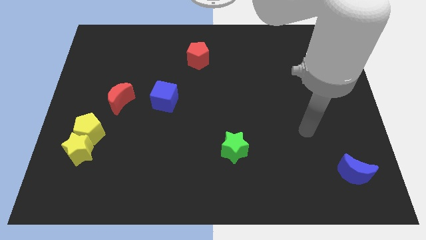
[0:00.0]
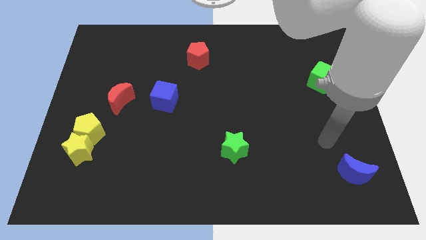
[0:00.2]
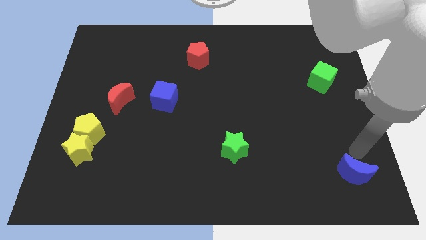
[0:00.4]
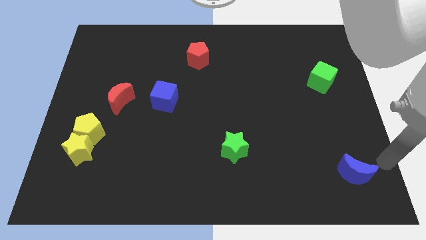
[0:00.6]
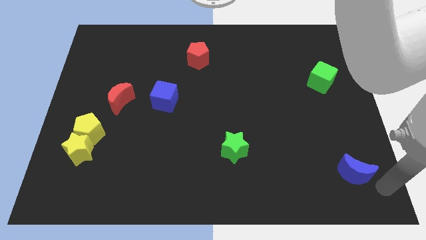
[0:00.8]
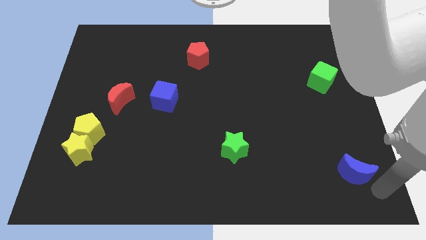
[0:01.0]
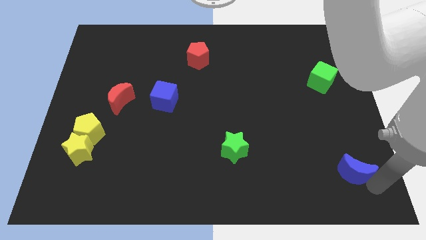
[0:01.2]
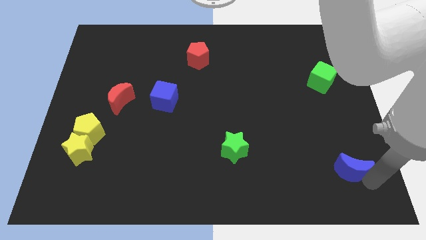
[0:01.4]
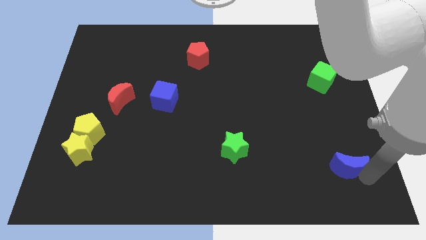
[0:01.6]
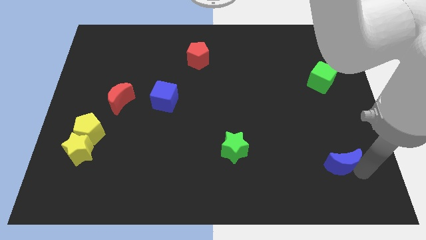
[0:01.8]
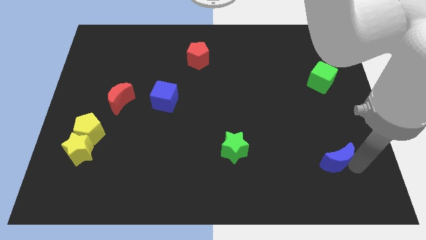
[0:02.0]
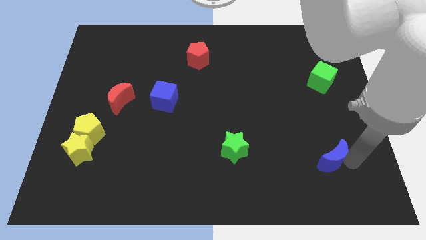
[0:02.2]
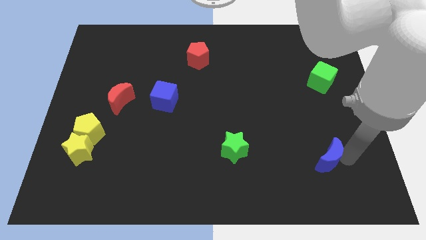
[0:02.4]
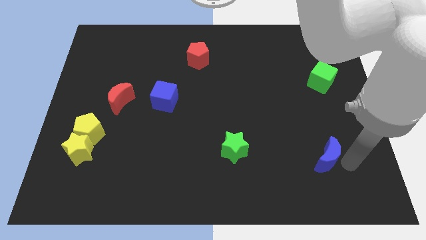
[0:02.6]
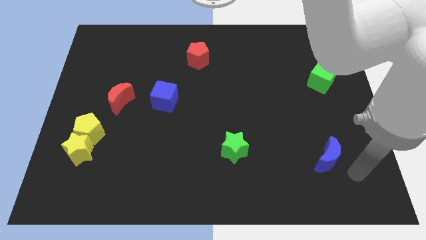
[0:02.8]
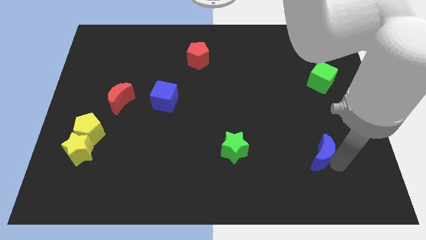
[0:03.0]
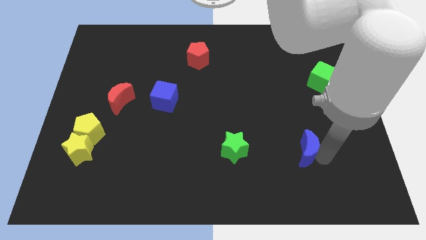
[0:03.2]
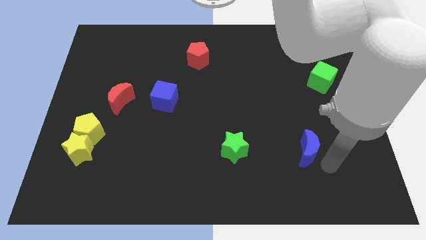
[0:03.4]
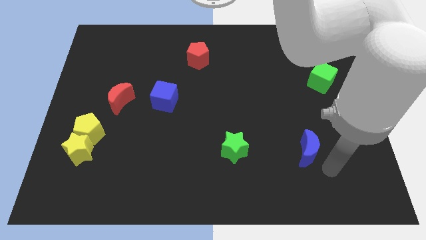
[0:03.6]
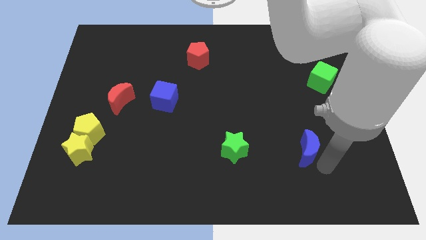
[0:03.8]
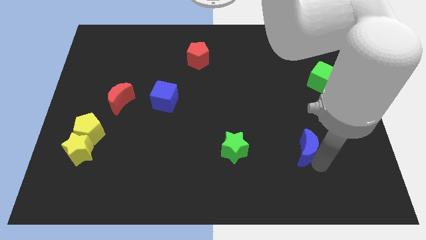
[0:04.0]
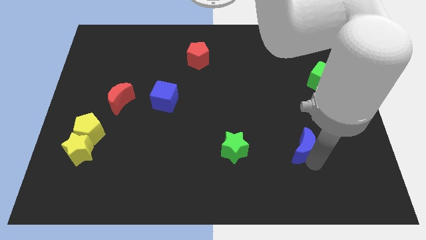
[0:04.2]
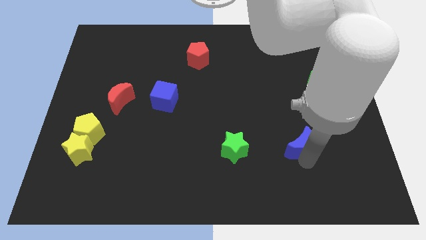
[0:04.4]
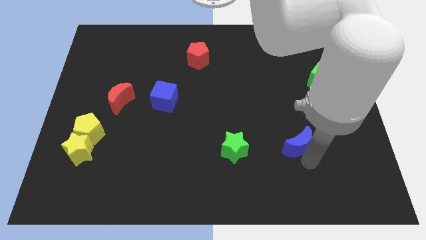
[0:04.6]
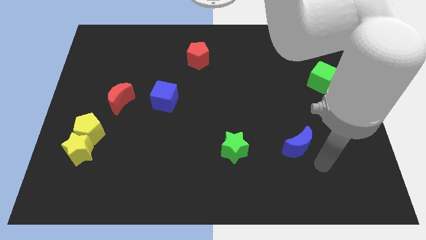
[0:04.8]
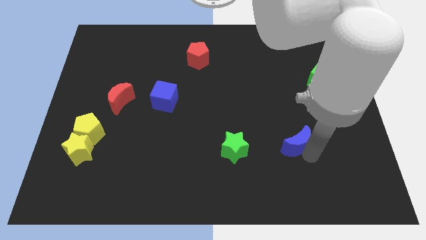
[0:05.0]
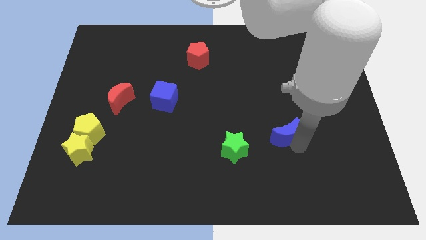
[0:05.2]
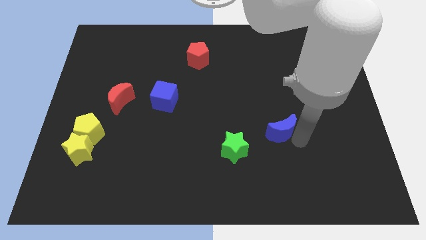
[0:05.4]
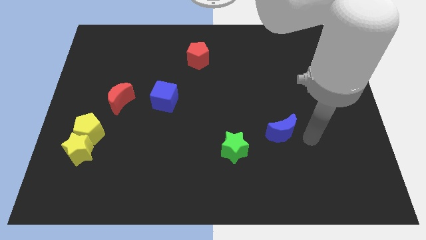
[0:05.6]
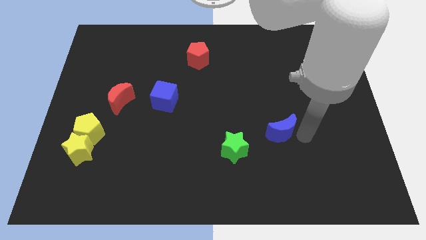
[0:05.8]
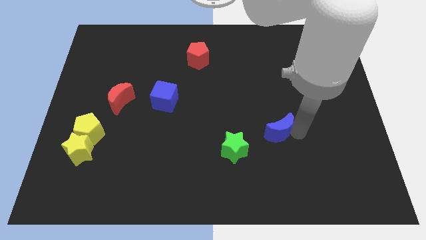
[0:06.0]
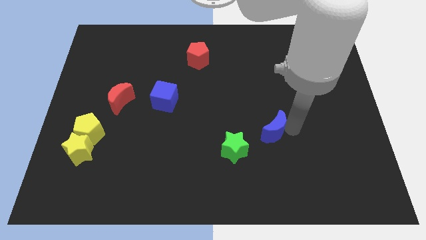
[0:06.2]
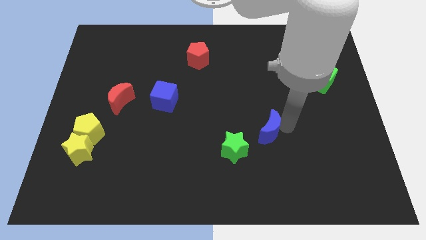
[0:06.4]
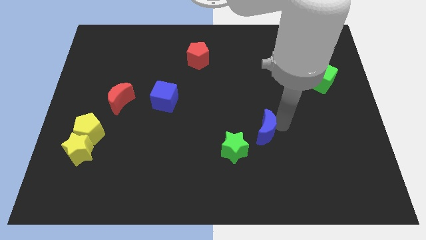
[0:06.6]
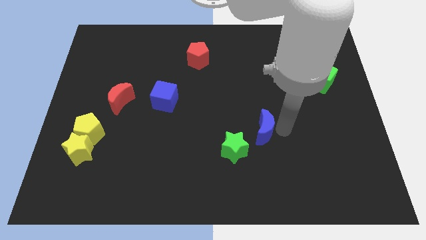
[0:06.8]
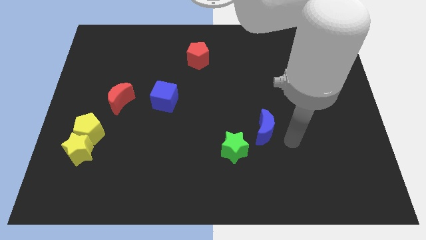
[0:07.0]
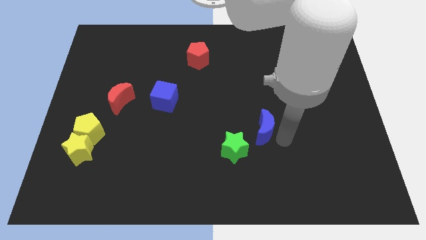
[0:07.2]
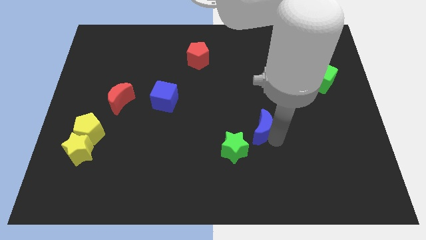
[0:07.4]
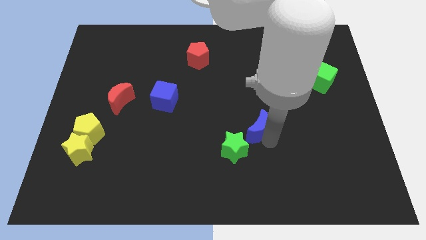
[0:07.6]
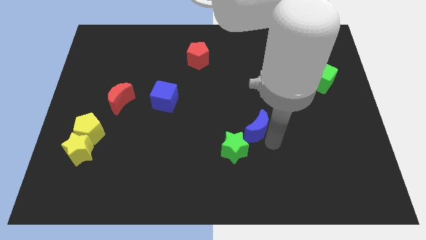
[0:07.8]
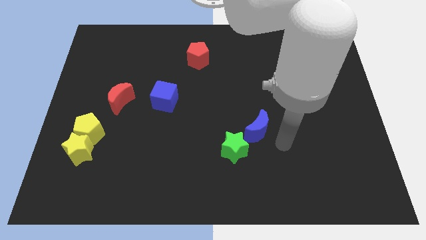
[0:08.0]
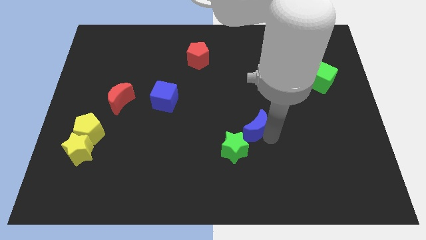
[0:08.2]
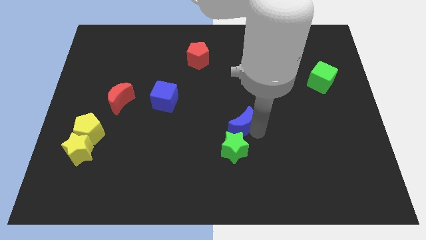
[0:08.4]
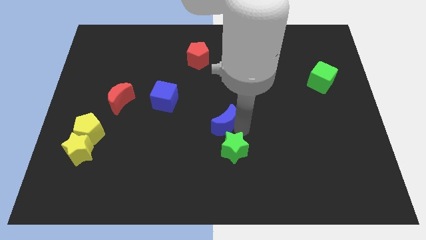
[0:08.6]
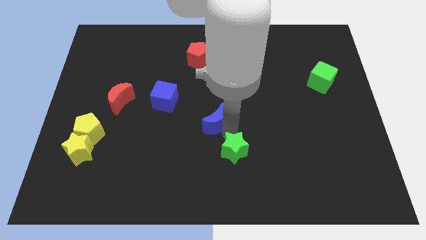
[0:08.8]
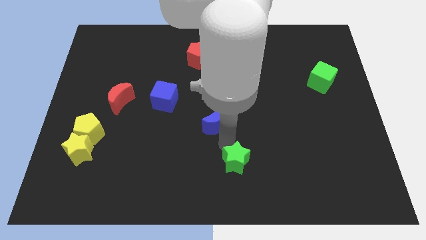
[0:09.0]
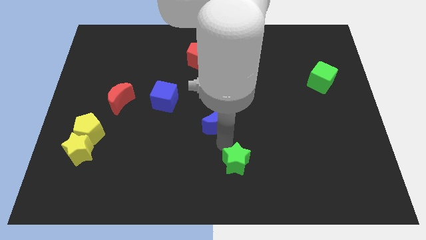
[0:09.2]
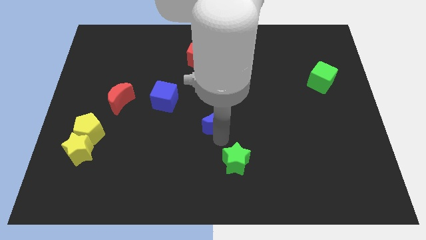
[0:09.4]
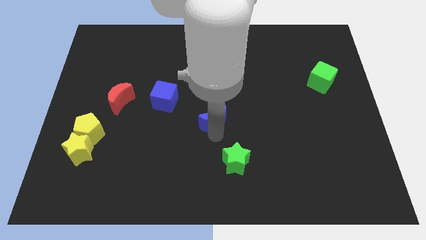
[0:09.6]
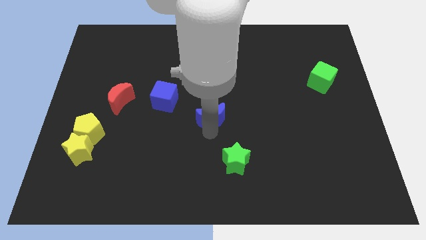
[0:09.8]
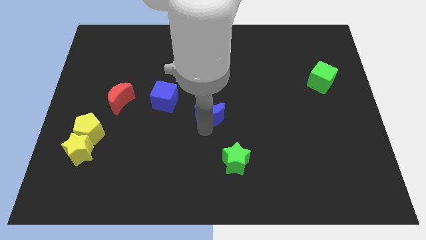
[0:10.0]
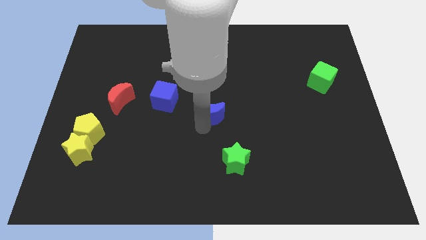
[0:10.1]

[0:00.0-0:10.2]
push the blue moon to the right of the blue cube

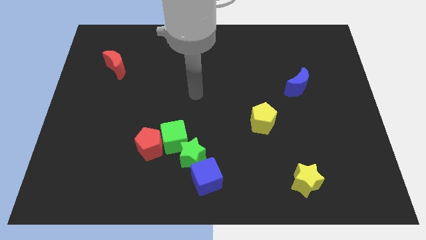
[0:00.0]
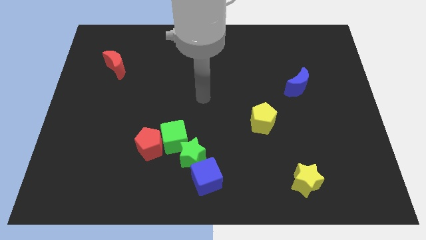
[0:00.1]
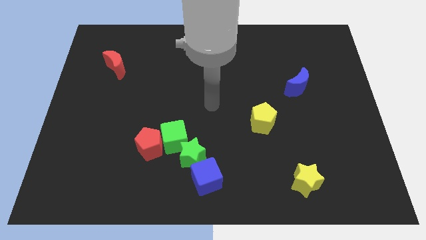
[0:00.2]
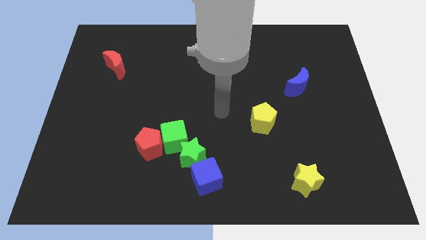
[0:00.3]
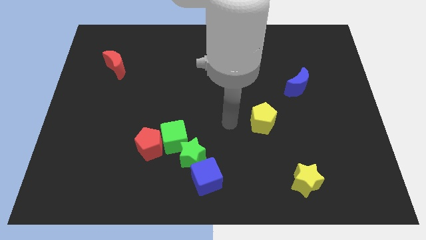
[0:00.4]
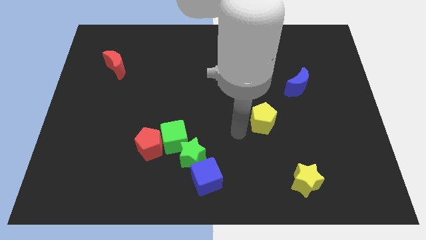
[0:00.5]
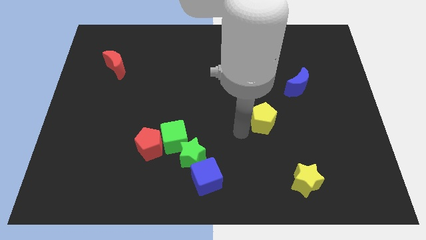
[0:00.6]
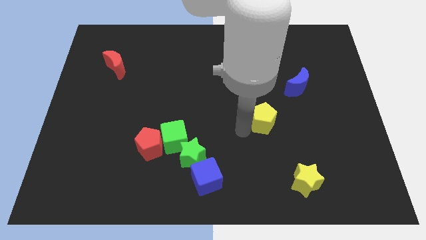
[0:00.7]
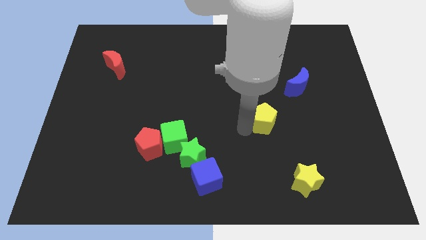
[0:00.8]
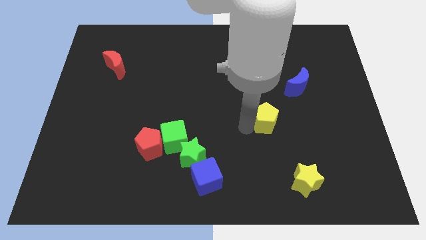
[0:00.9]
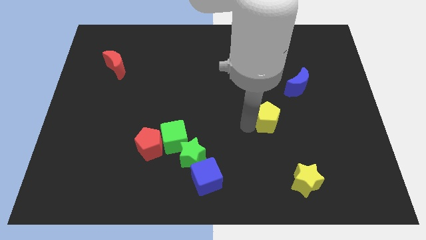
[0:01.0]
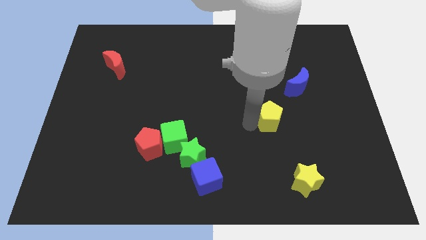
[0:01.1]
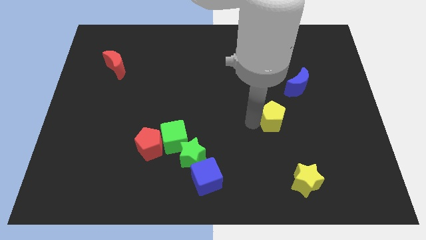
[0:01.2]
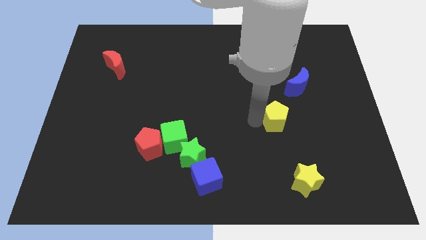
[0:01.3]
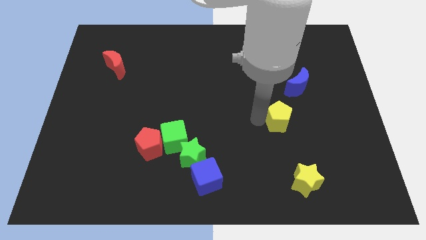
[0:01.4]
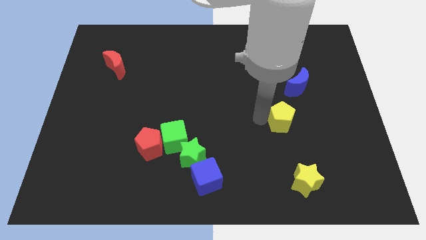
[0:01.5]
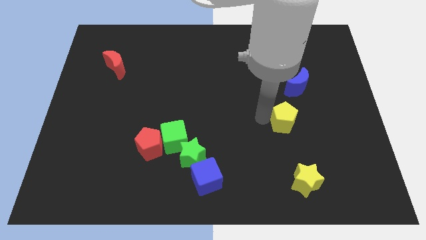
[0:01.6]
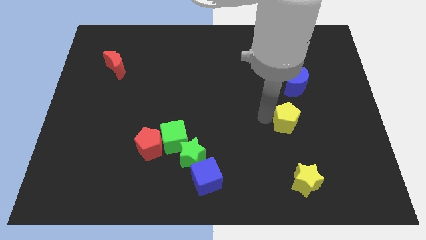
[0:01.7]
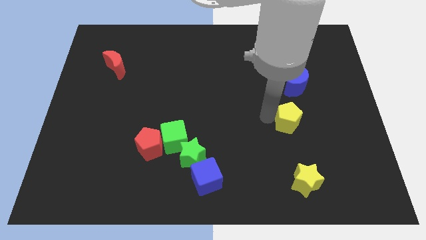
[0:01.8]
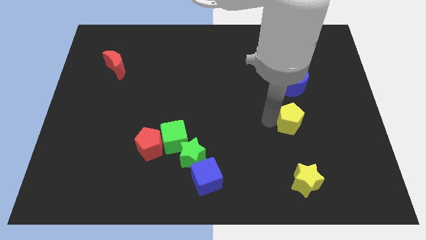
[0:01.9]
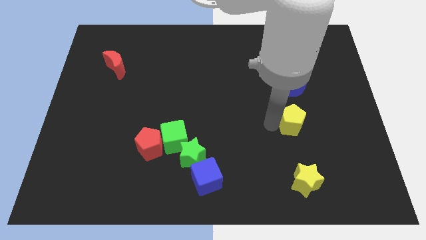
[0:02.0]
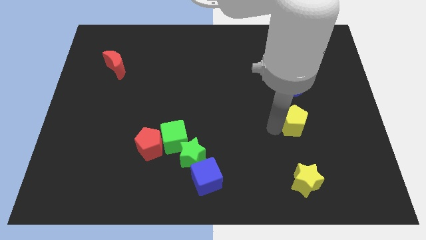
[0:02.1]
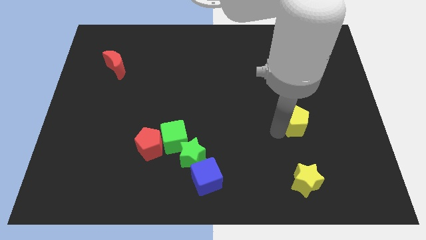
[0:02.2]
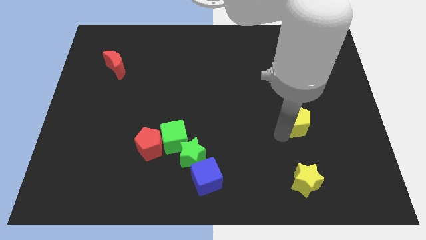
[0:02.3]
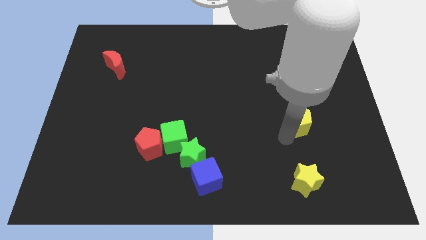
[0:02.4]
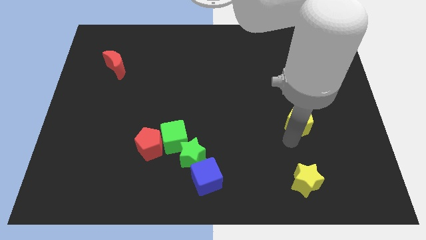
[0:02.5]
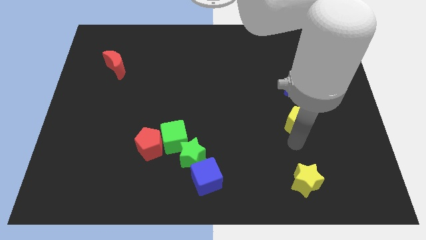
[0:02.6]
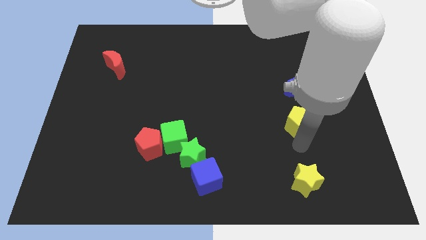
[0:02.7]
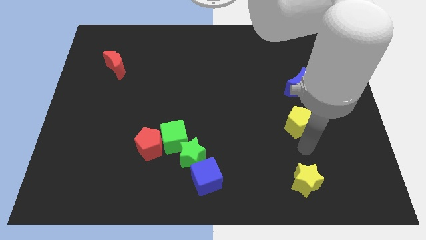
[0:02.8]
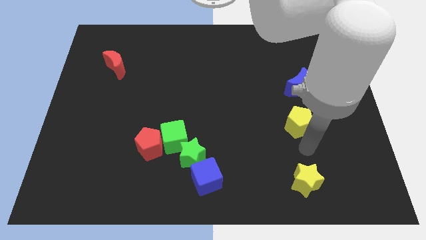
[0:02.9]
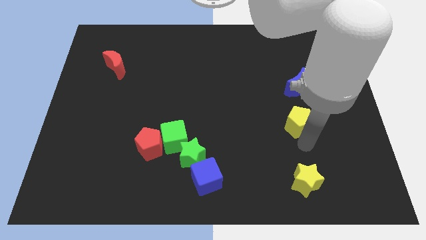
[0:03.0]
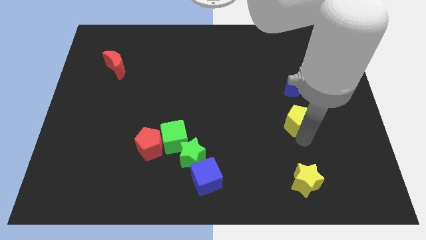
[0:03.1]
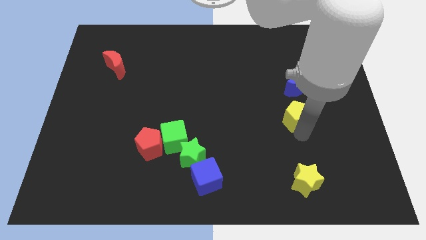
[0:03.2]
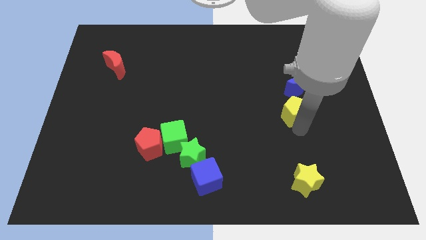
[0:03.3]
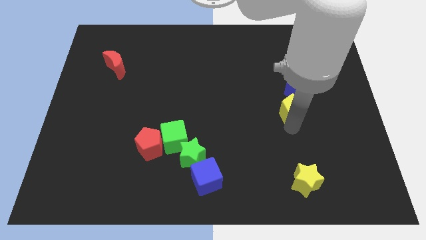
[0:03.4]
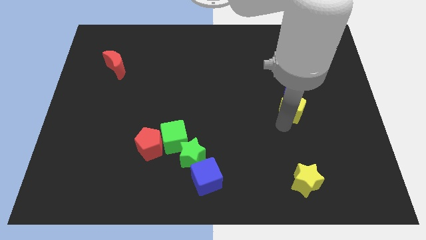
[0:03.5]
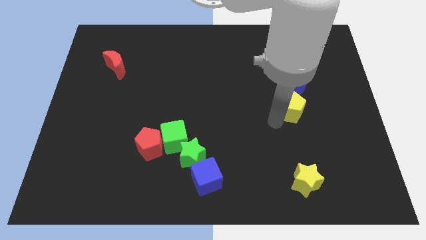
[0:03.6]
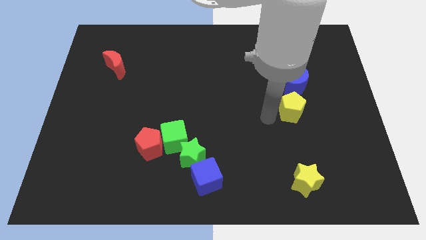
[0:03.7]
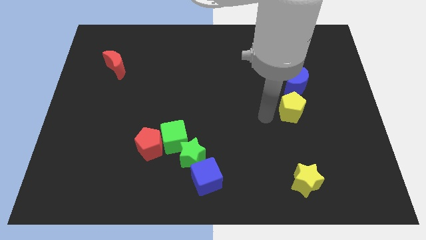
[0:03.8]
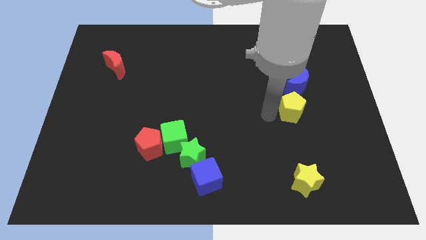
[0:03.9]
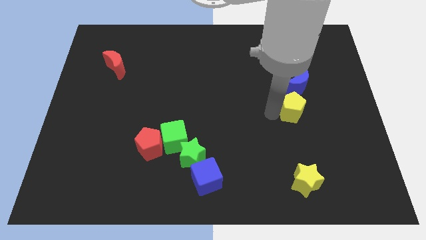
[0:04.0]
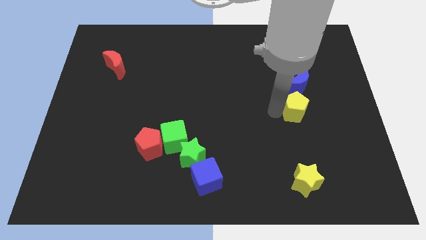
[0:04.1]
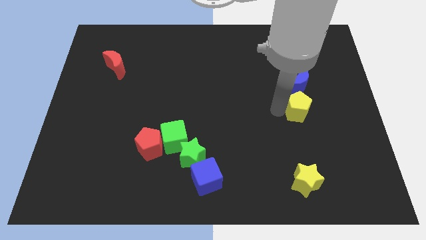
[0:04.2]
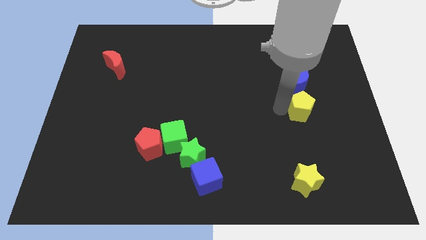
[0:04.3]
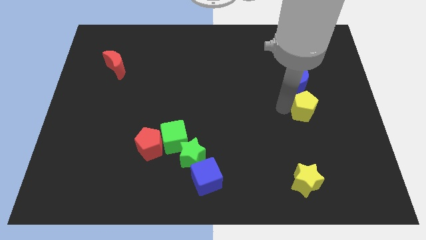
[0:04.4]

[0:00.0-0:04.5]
move the yellow pentagon to the bottom right of the blue moon
